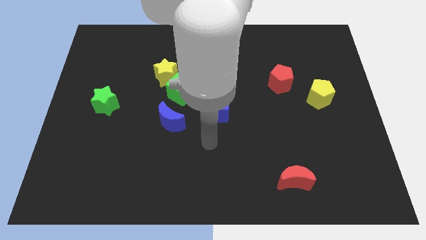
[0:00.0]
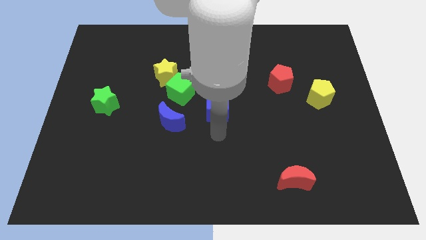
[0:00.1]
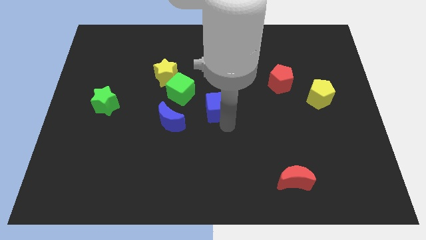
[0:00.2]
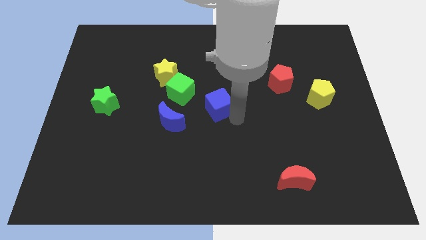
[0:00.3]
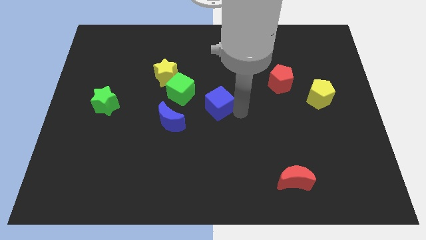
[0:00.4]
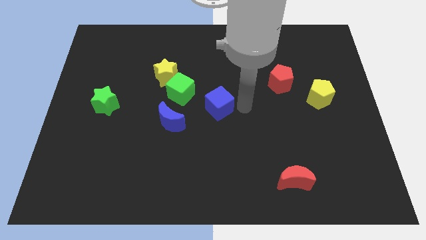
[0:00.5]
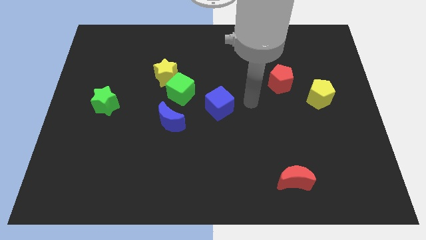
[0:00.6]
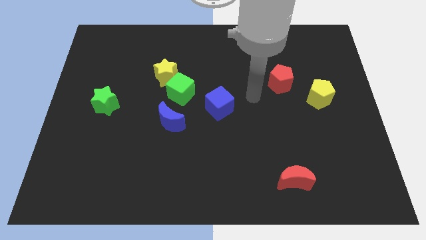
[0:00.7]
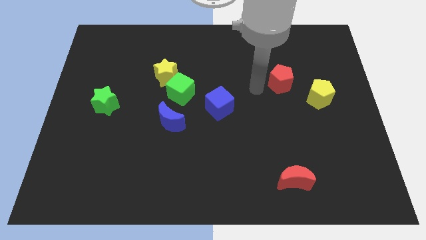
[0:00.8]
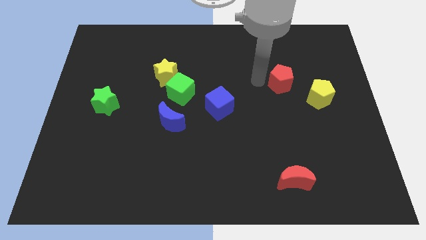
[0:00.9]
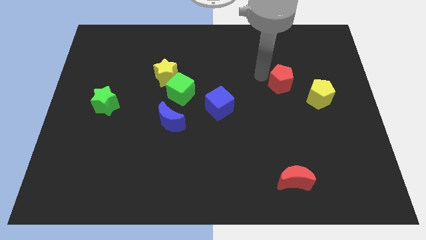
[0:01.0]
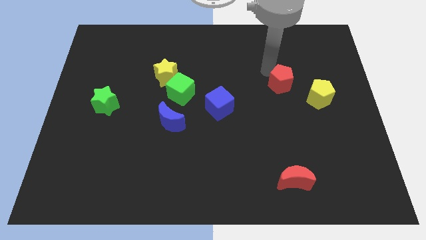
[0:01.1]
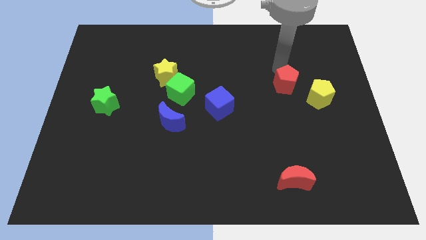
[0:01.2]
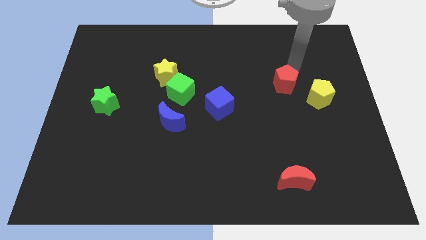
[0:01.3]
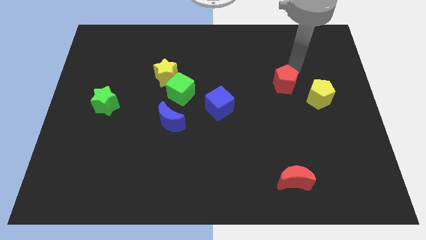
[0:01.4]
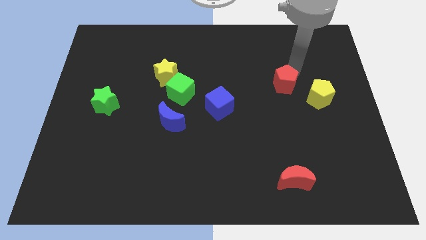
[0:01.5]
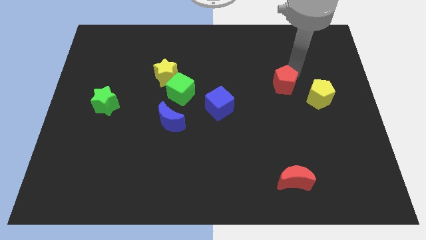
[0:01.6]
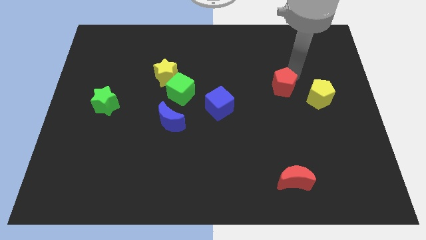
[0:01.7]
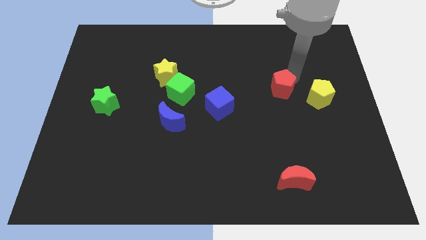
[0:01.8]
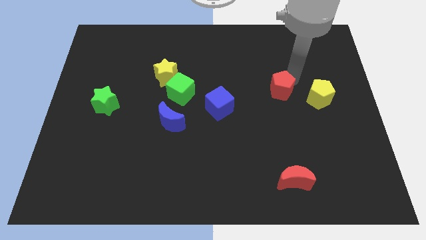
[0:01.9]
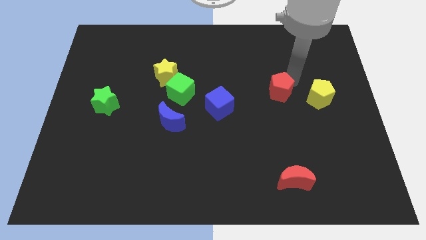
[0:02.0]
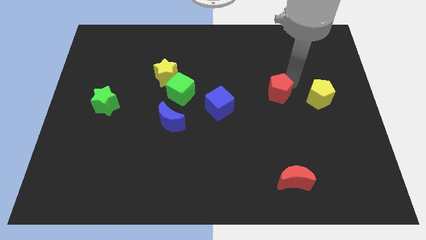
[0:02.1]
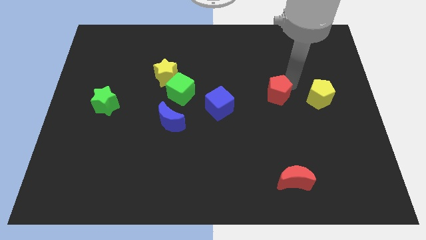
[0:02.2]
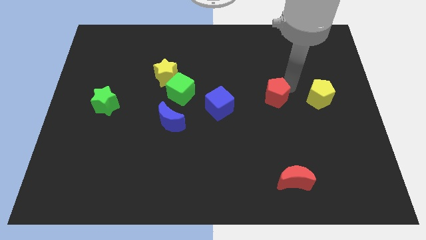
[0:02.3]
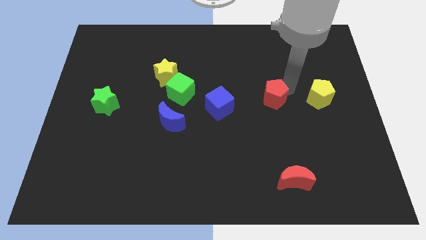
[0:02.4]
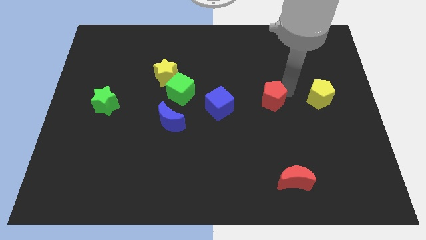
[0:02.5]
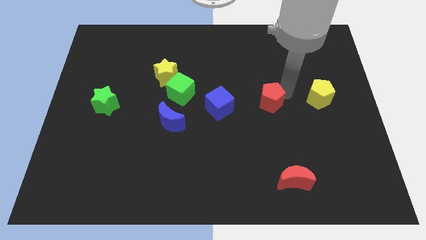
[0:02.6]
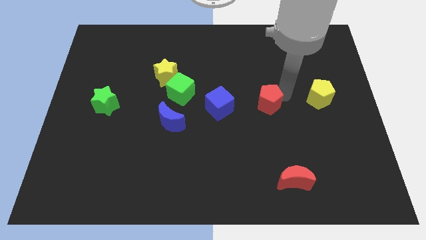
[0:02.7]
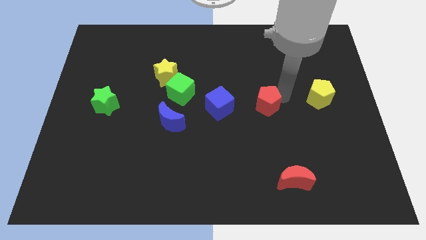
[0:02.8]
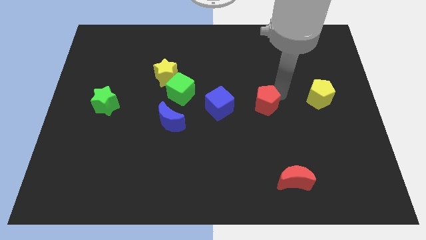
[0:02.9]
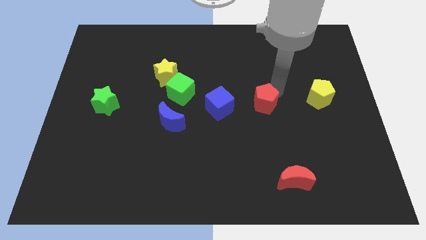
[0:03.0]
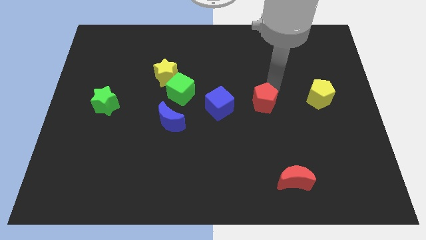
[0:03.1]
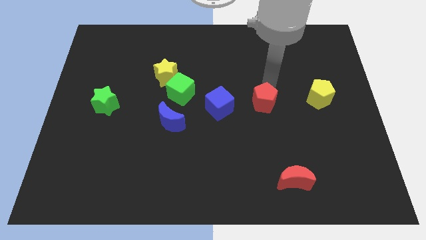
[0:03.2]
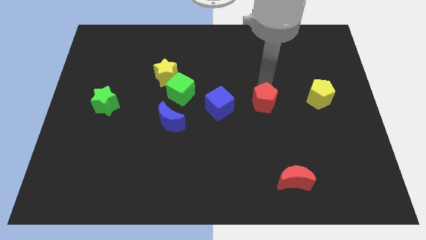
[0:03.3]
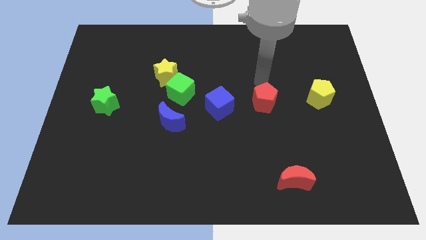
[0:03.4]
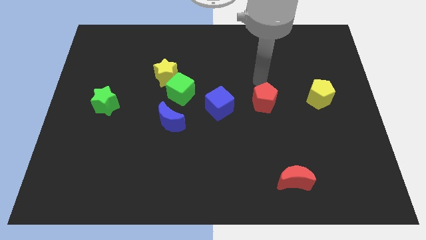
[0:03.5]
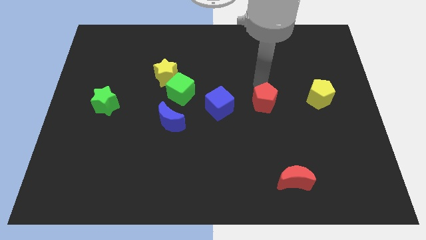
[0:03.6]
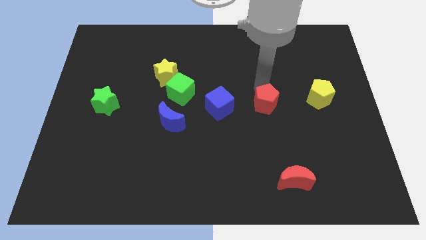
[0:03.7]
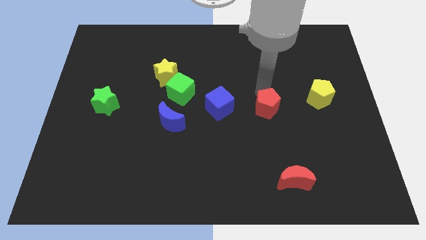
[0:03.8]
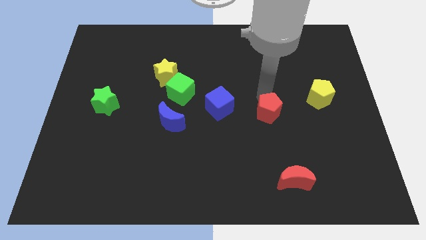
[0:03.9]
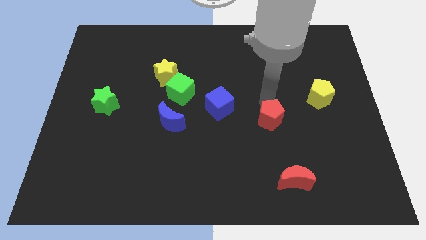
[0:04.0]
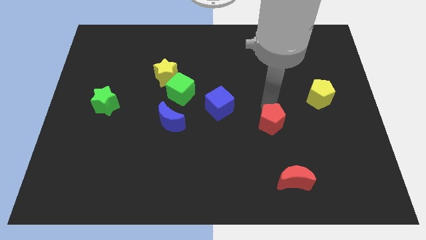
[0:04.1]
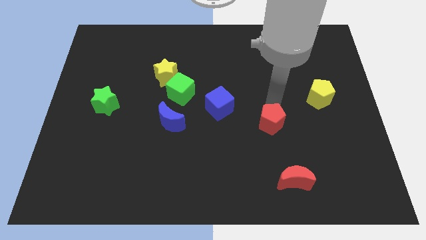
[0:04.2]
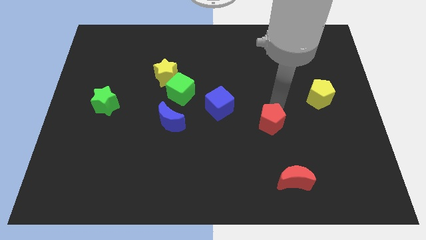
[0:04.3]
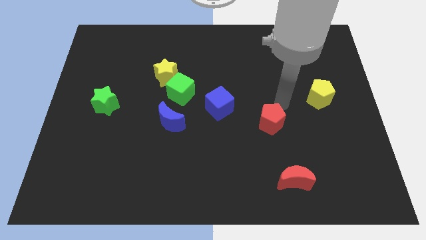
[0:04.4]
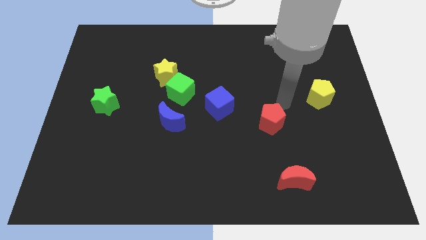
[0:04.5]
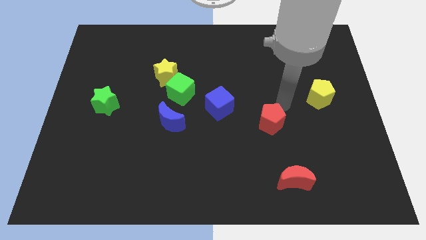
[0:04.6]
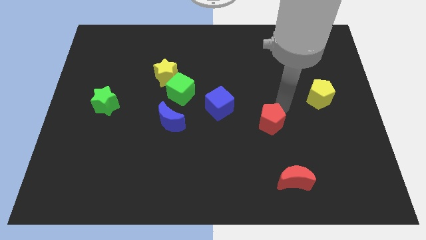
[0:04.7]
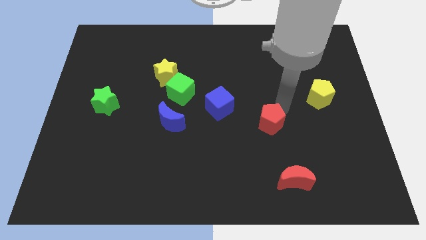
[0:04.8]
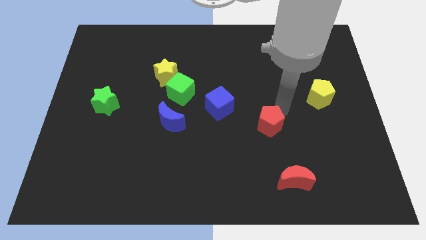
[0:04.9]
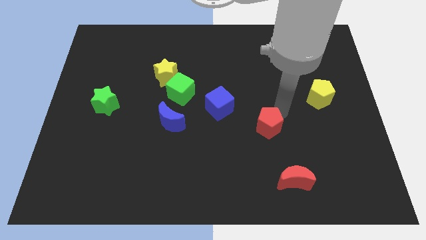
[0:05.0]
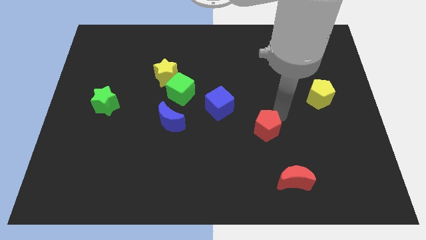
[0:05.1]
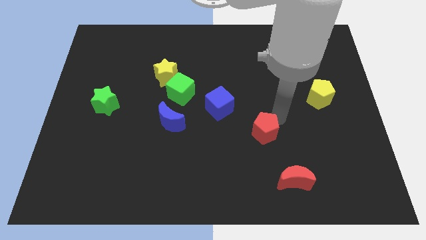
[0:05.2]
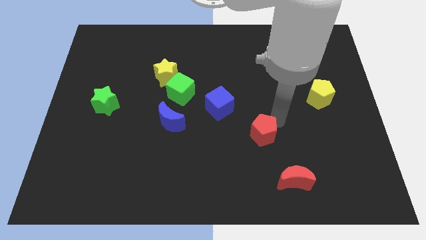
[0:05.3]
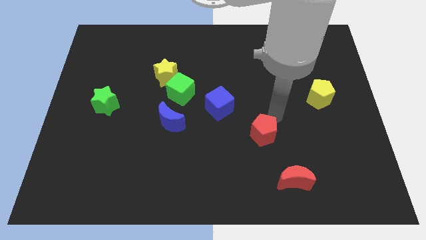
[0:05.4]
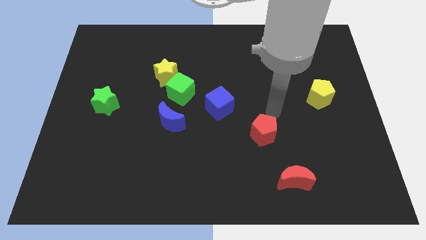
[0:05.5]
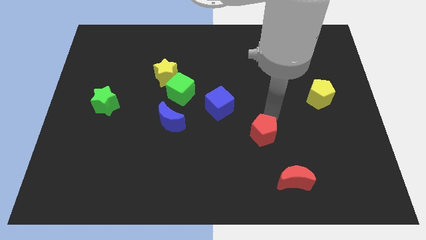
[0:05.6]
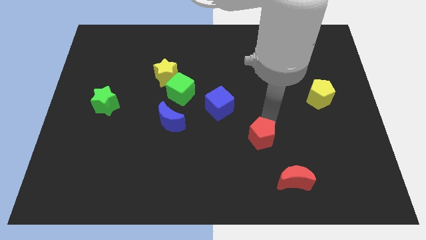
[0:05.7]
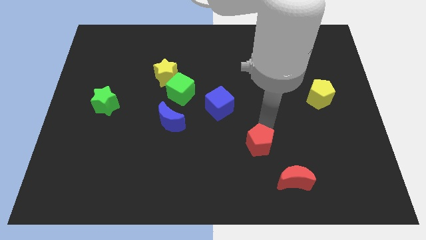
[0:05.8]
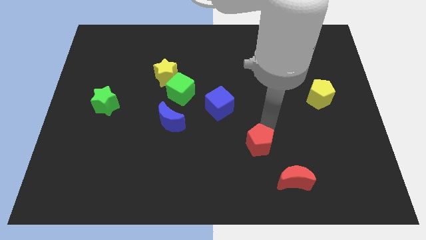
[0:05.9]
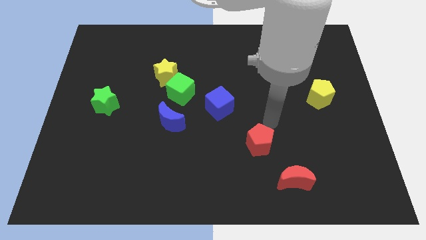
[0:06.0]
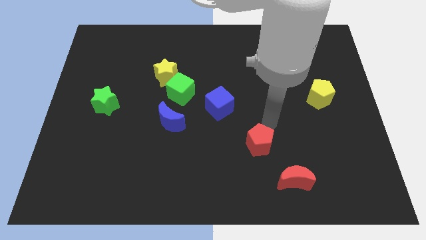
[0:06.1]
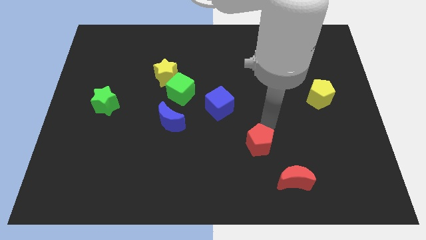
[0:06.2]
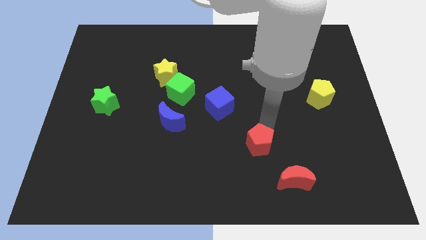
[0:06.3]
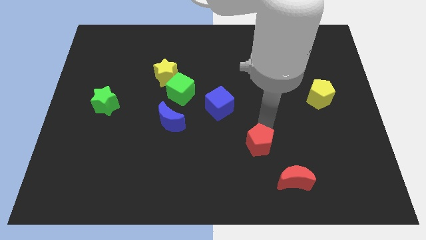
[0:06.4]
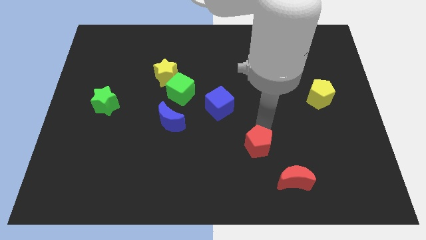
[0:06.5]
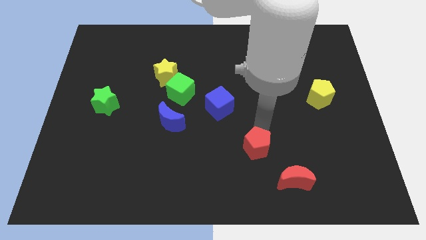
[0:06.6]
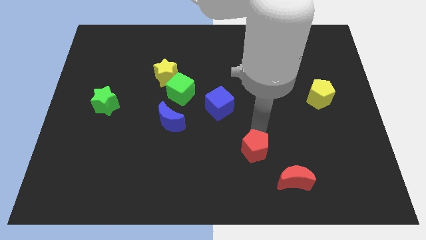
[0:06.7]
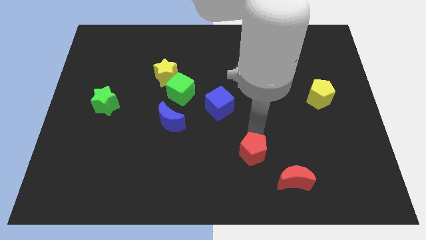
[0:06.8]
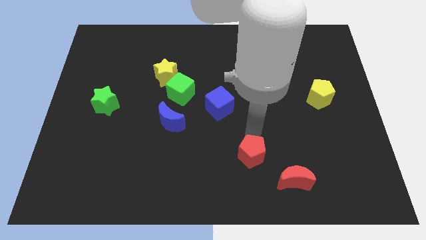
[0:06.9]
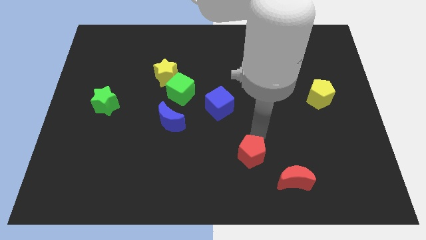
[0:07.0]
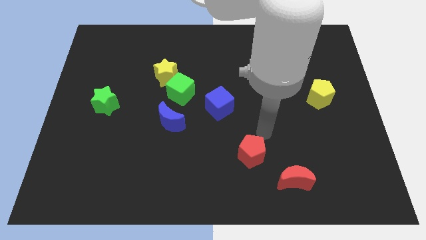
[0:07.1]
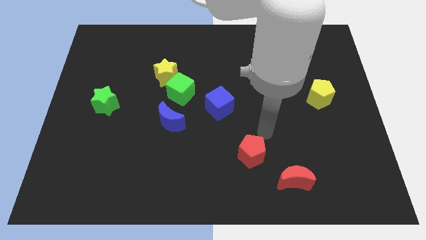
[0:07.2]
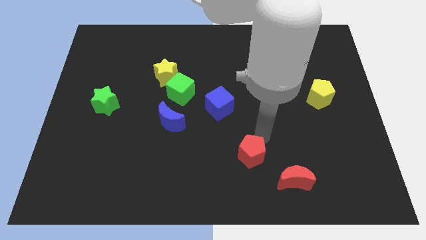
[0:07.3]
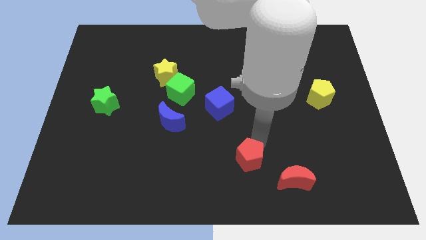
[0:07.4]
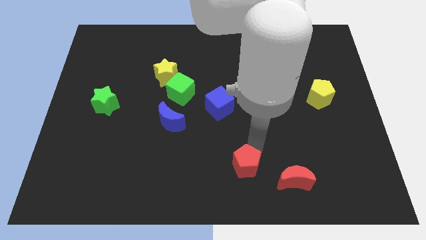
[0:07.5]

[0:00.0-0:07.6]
move the red pentagon to the bottom side

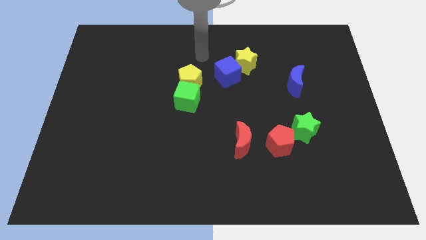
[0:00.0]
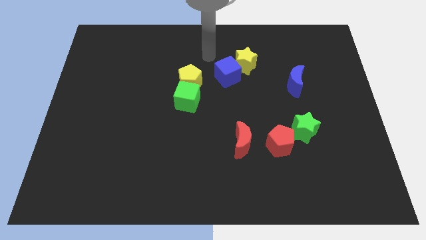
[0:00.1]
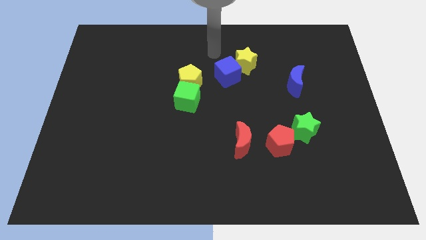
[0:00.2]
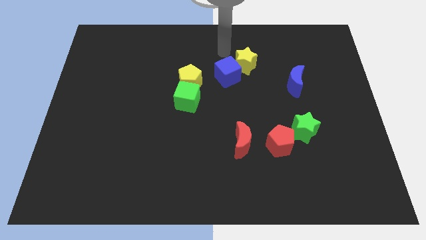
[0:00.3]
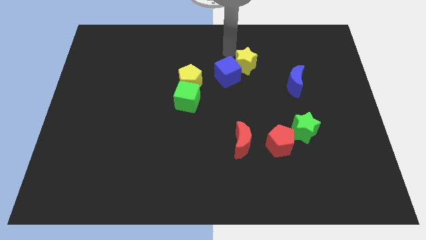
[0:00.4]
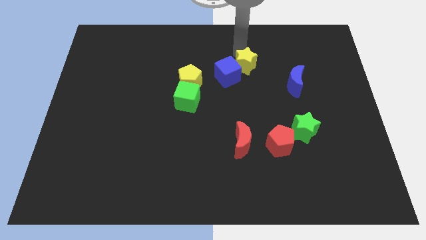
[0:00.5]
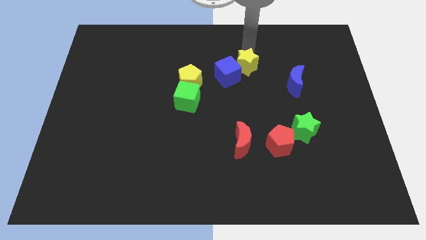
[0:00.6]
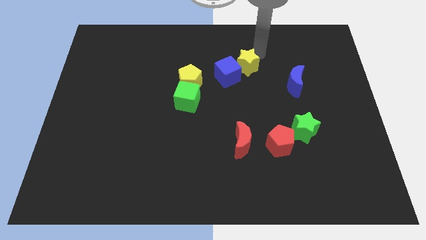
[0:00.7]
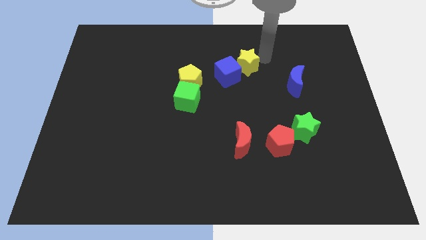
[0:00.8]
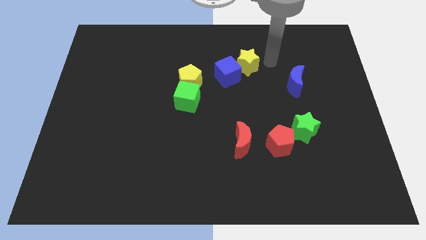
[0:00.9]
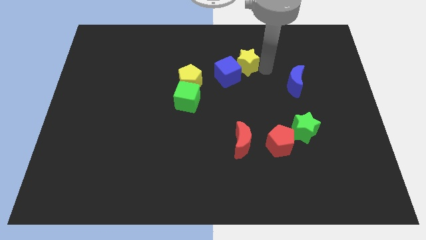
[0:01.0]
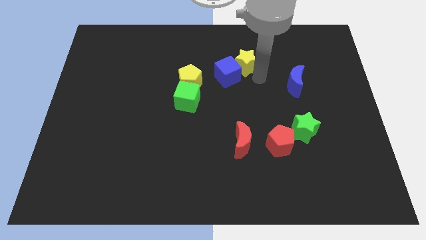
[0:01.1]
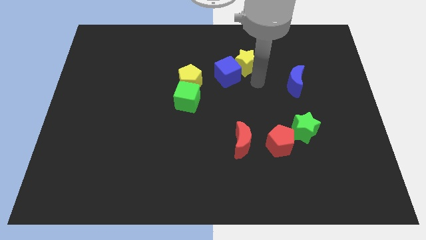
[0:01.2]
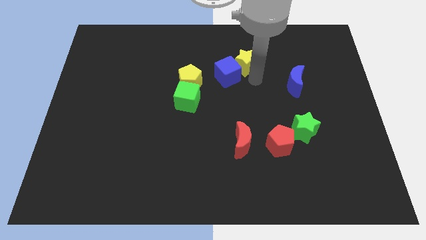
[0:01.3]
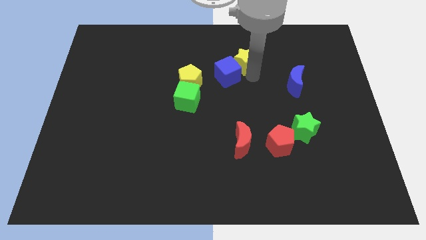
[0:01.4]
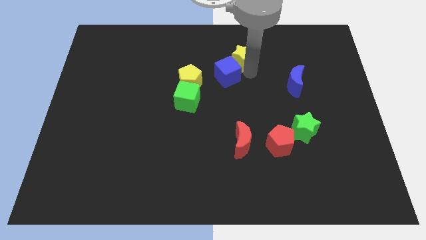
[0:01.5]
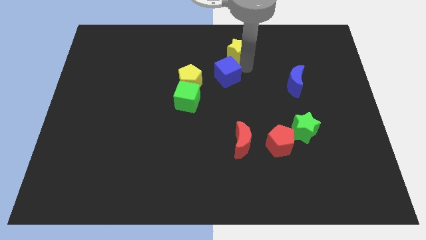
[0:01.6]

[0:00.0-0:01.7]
put the yellow star to the top side
